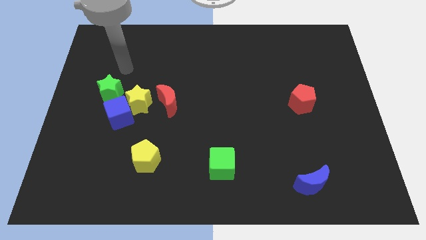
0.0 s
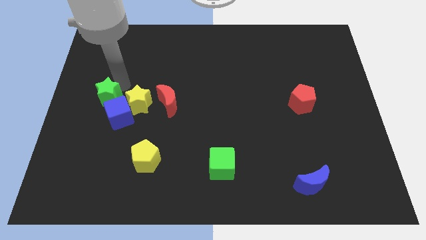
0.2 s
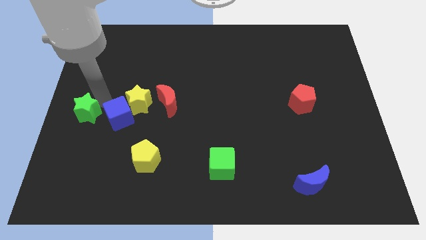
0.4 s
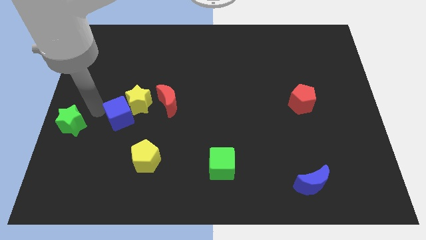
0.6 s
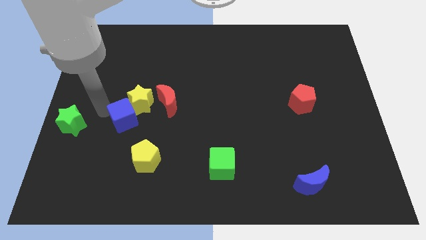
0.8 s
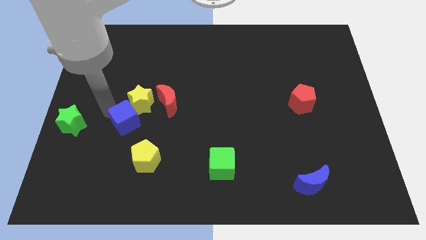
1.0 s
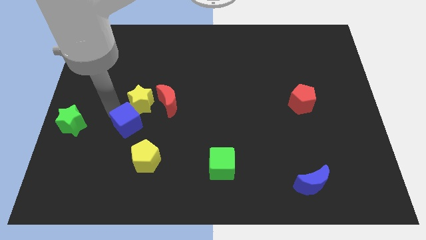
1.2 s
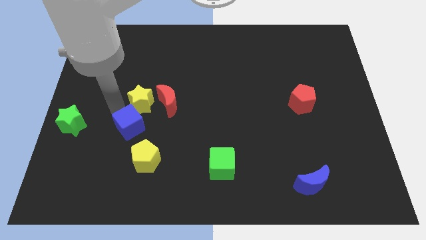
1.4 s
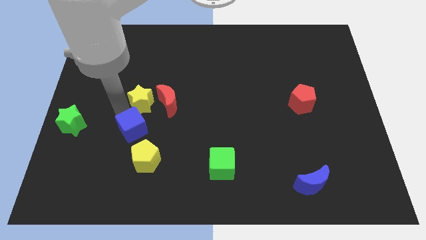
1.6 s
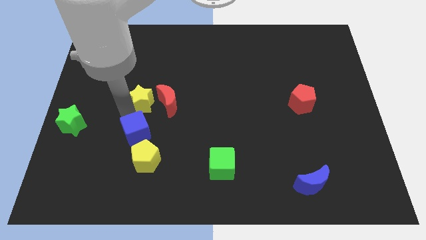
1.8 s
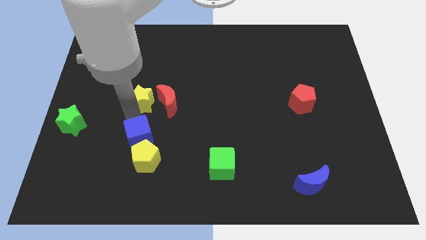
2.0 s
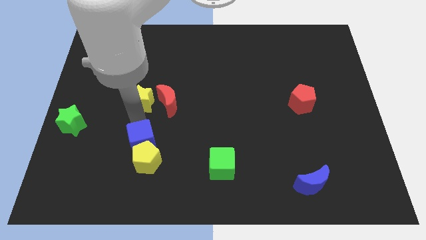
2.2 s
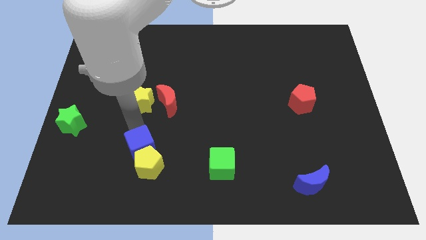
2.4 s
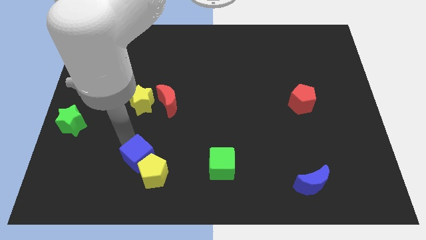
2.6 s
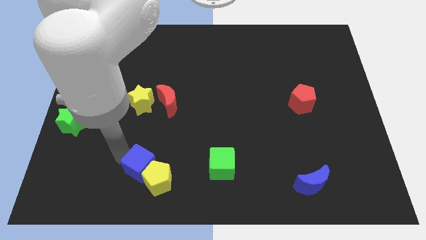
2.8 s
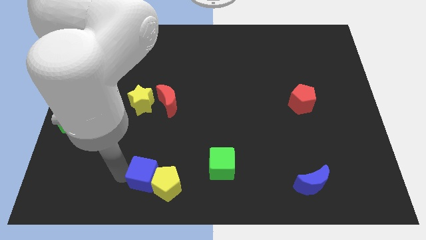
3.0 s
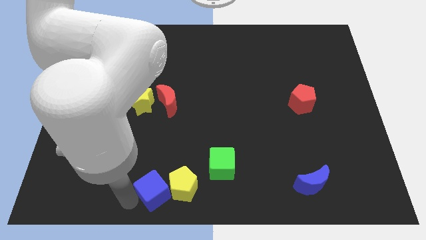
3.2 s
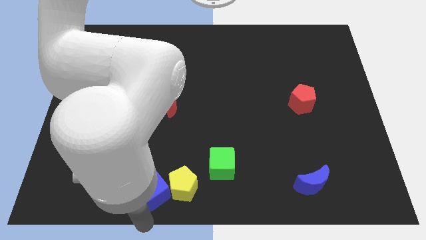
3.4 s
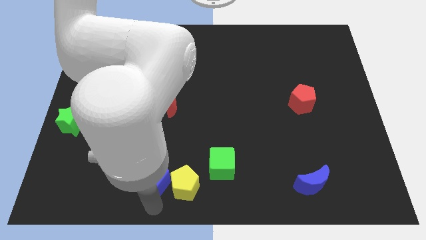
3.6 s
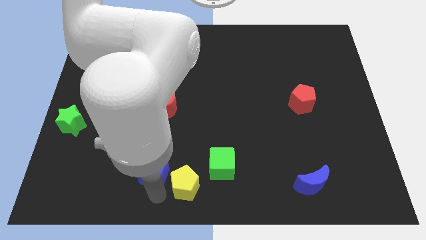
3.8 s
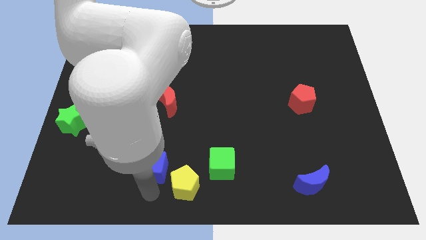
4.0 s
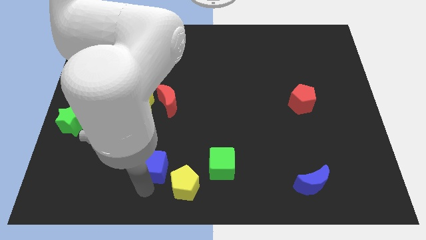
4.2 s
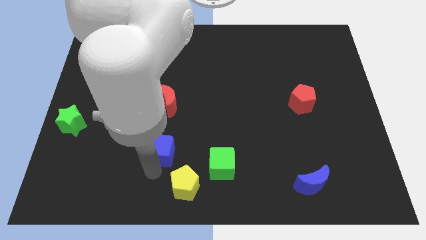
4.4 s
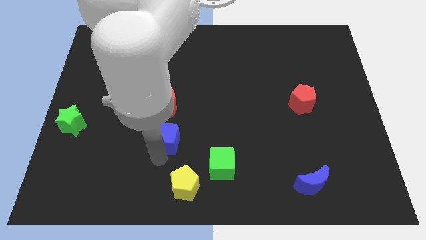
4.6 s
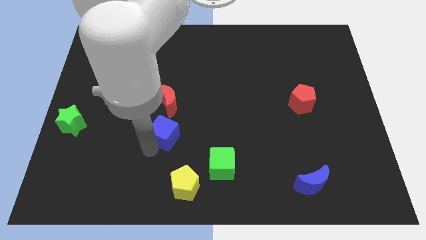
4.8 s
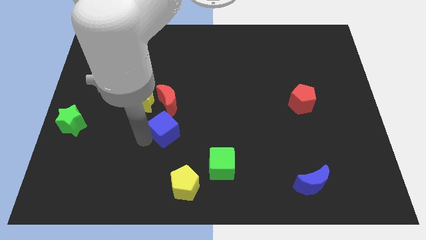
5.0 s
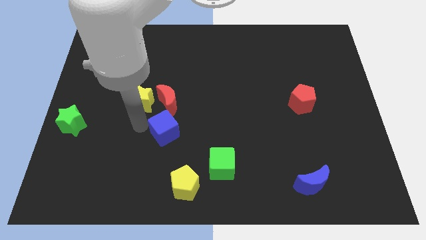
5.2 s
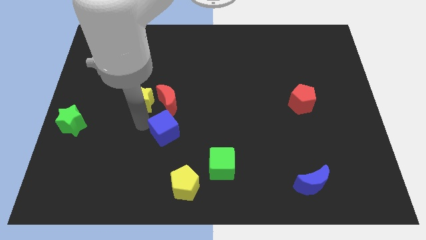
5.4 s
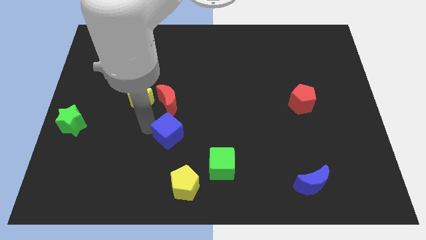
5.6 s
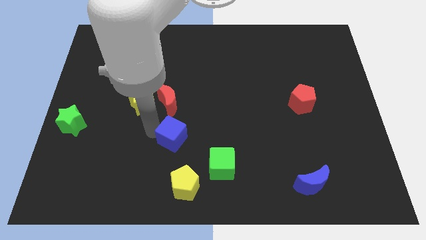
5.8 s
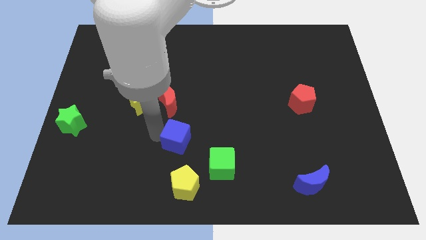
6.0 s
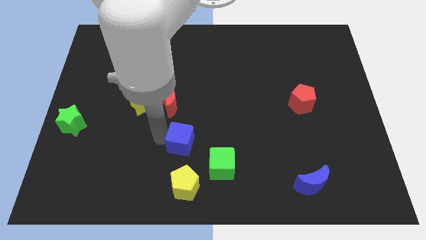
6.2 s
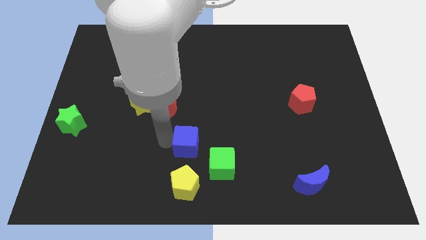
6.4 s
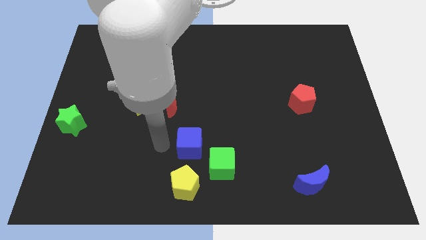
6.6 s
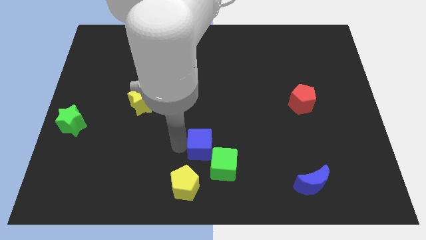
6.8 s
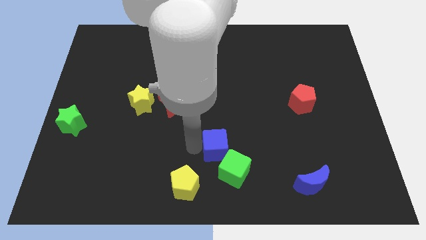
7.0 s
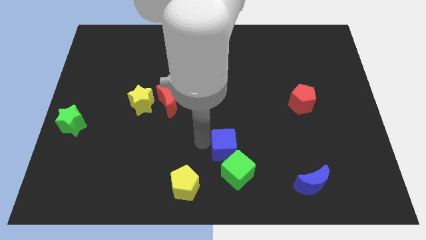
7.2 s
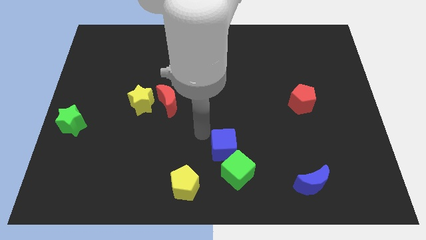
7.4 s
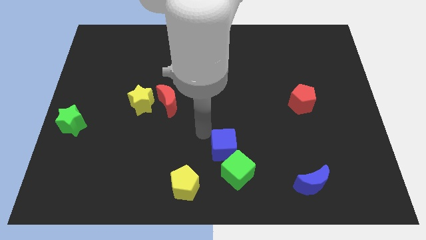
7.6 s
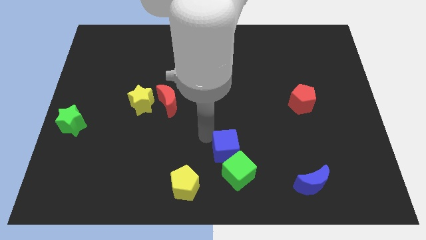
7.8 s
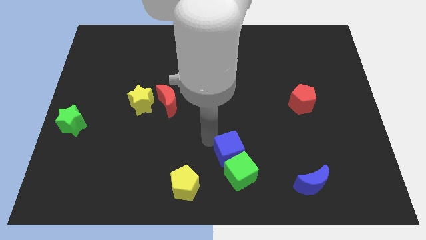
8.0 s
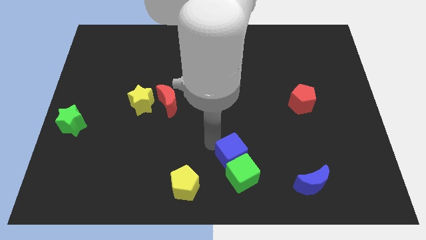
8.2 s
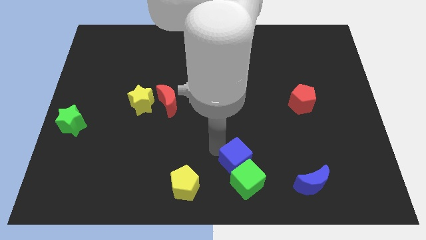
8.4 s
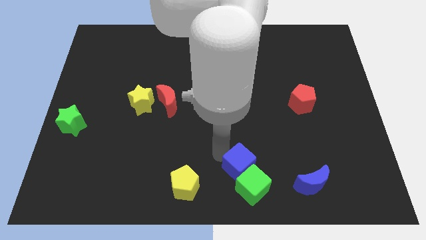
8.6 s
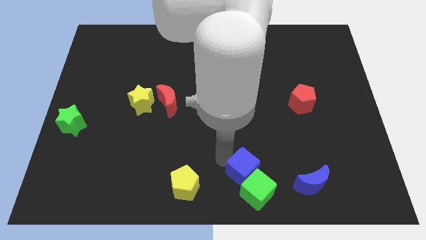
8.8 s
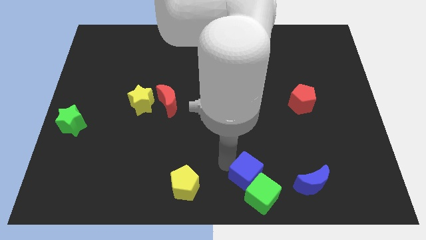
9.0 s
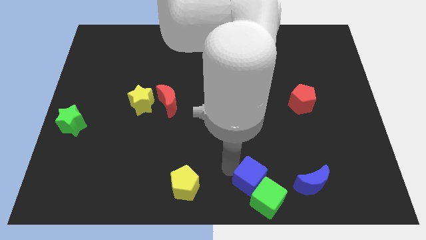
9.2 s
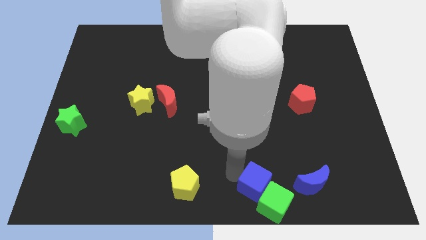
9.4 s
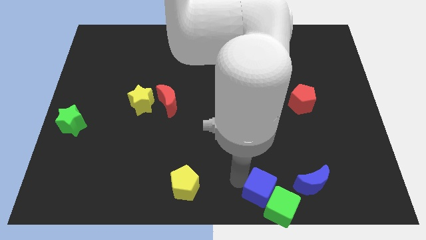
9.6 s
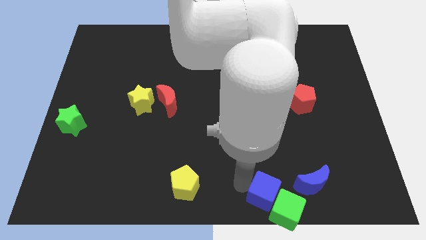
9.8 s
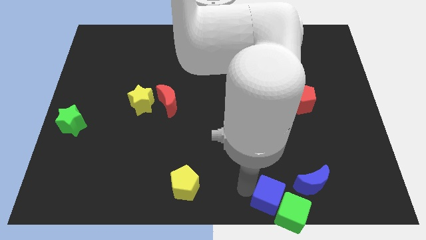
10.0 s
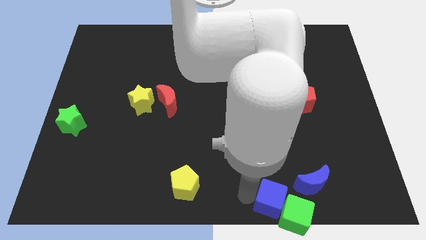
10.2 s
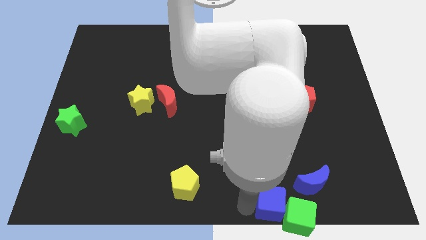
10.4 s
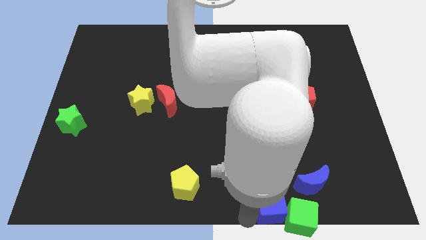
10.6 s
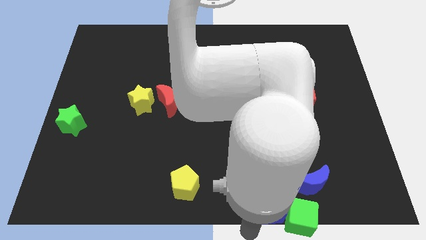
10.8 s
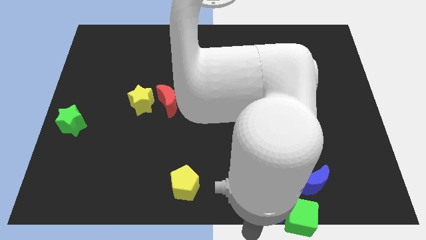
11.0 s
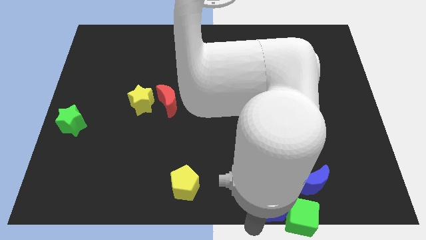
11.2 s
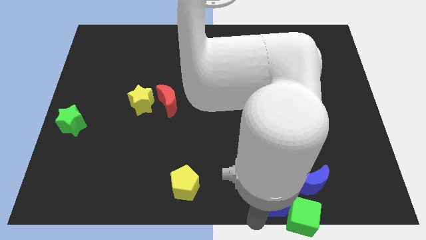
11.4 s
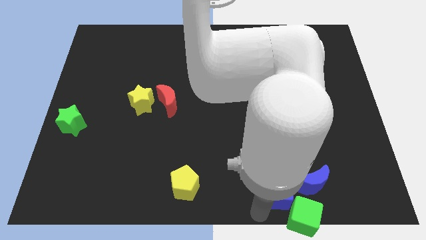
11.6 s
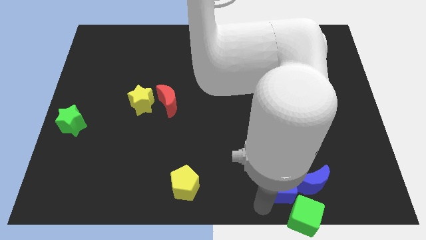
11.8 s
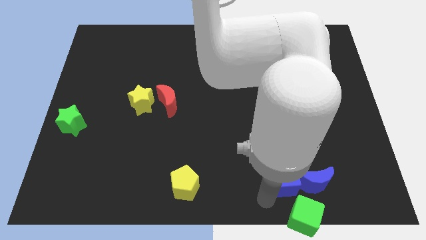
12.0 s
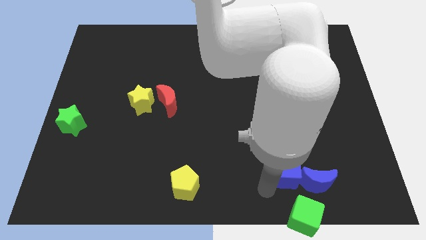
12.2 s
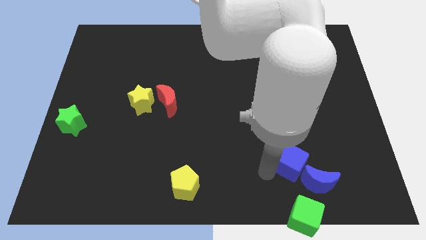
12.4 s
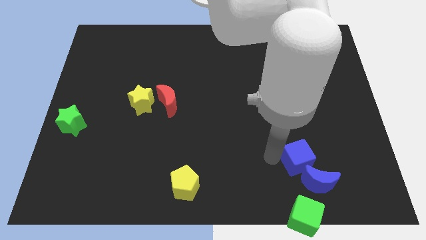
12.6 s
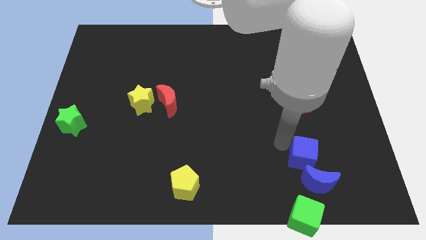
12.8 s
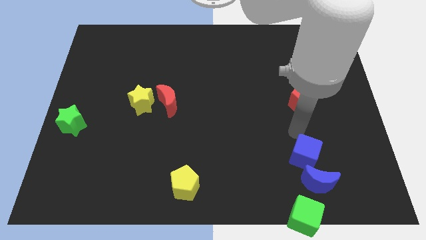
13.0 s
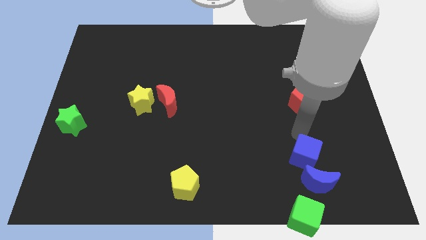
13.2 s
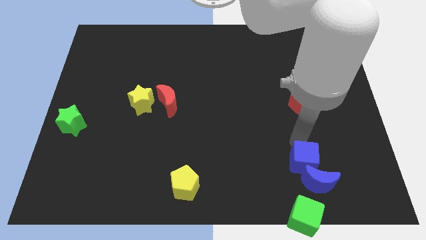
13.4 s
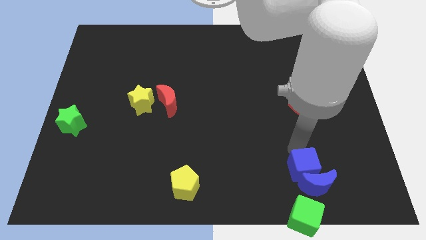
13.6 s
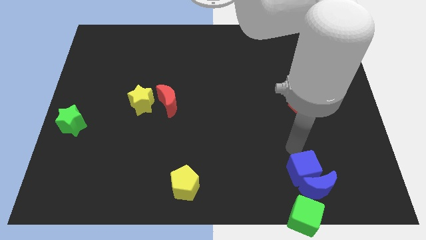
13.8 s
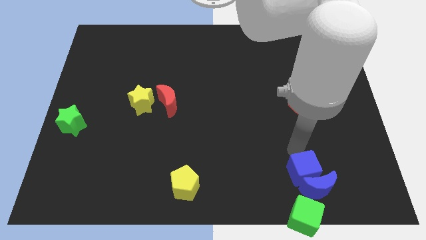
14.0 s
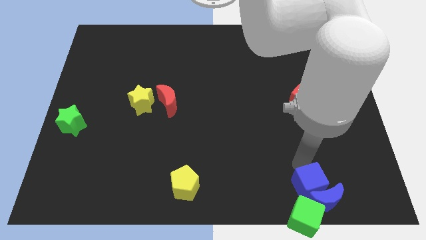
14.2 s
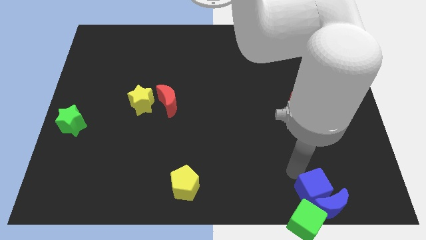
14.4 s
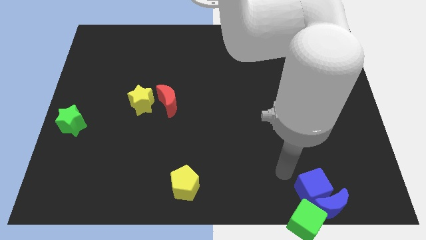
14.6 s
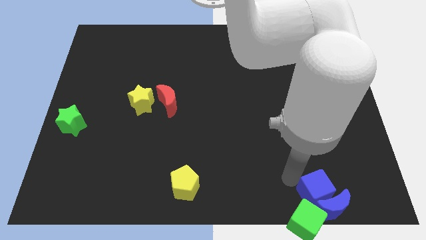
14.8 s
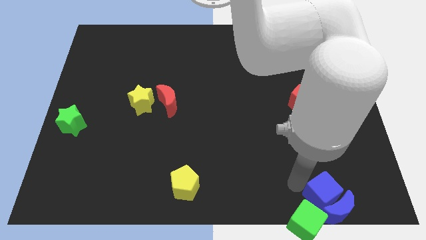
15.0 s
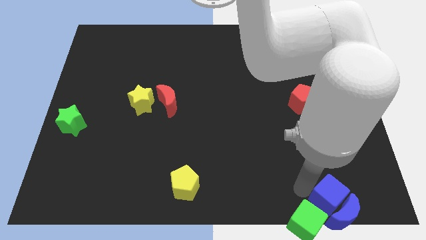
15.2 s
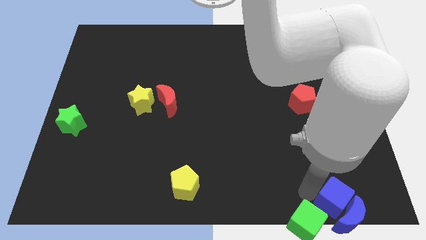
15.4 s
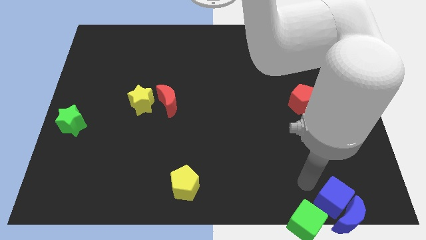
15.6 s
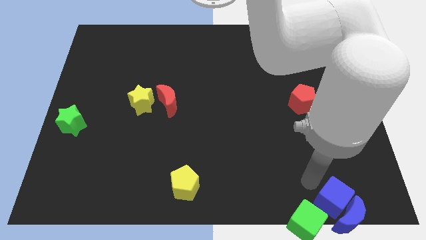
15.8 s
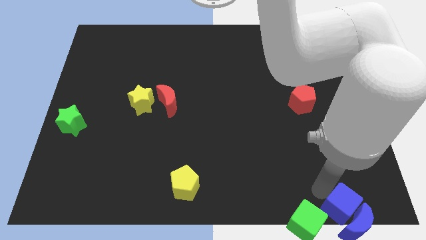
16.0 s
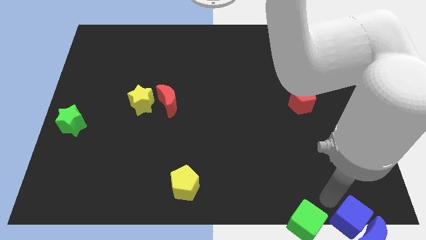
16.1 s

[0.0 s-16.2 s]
move the blue cube to the bottom right corner
